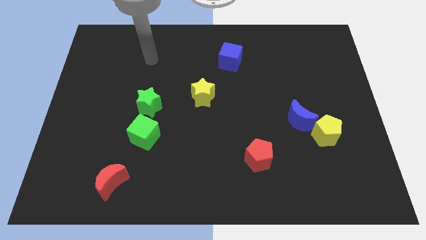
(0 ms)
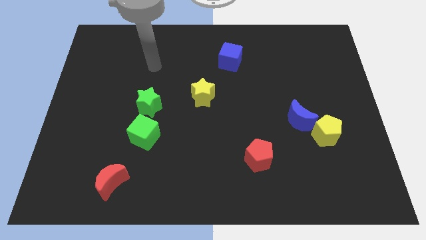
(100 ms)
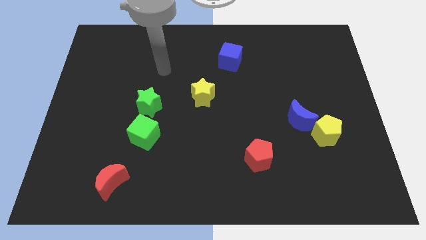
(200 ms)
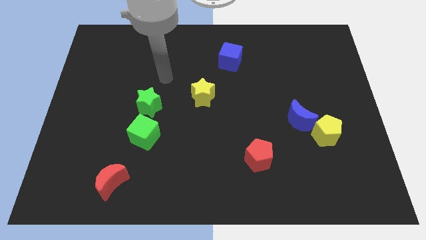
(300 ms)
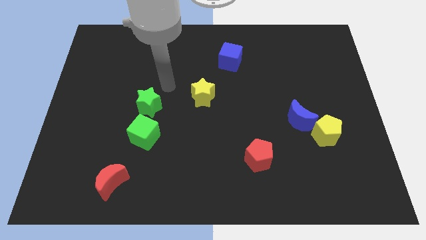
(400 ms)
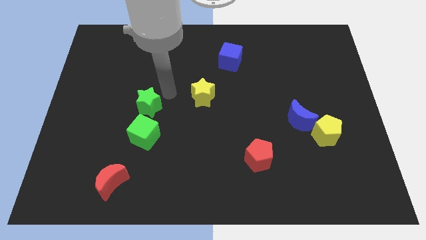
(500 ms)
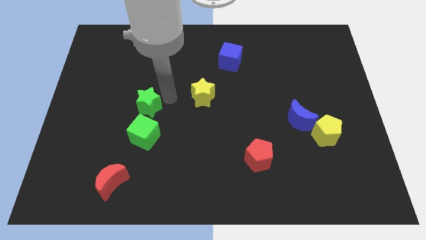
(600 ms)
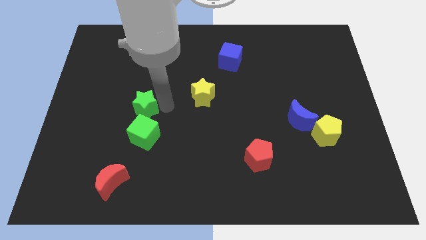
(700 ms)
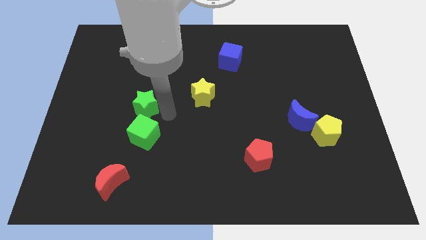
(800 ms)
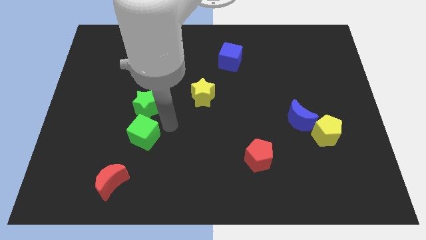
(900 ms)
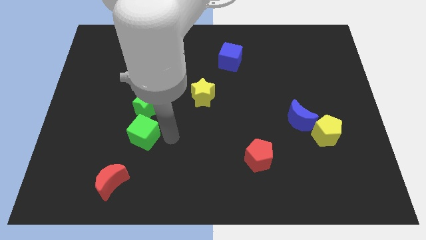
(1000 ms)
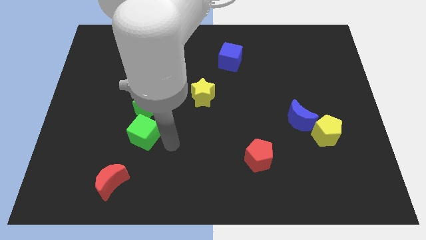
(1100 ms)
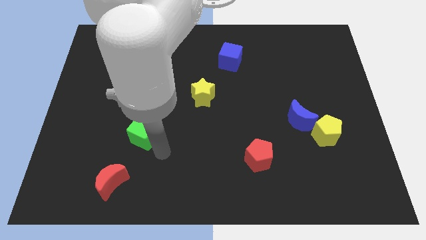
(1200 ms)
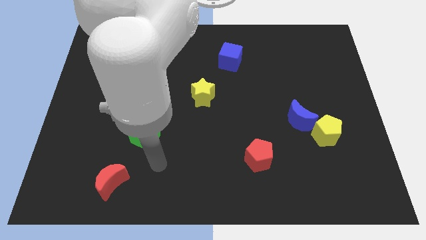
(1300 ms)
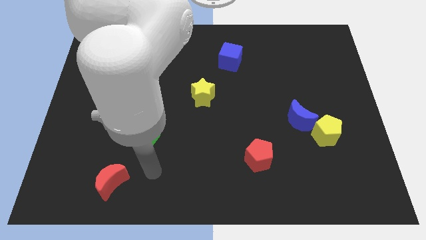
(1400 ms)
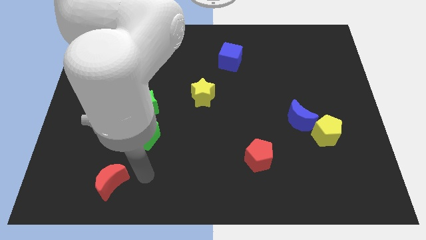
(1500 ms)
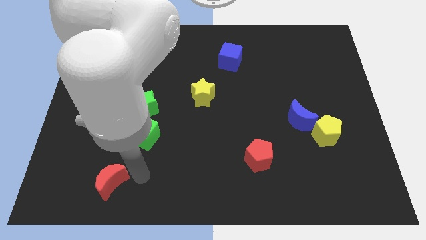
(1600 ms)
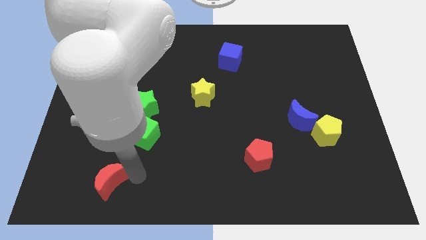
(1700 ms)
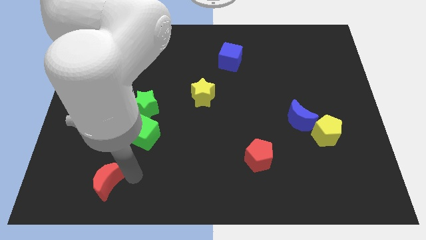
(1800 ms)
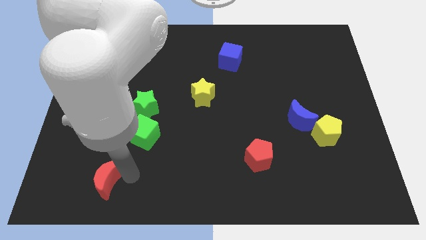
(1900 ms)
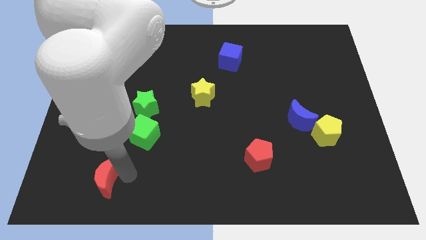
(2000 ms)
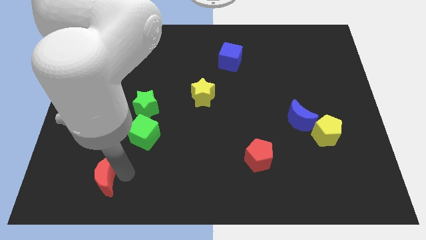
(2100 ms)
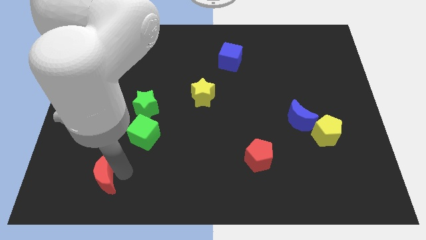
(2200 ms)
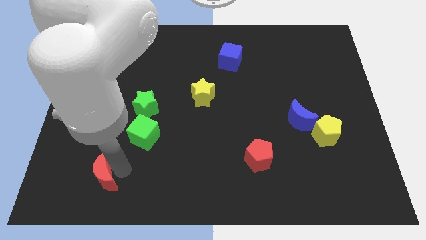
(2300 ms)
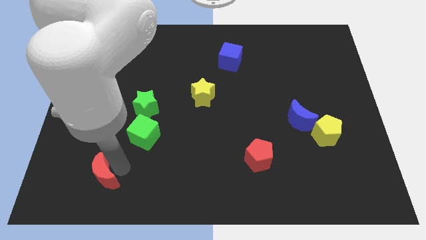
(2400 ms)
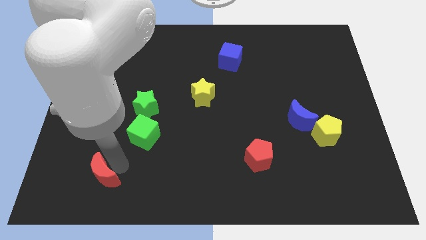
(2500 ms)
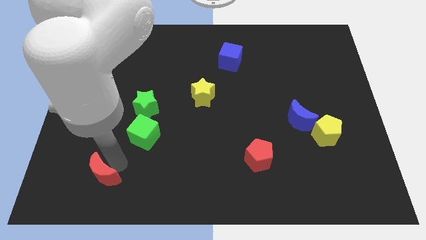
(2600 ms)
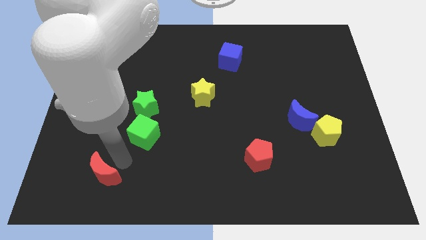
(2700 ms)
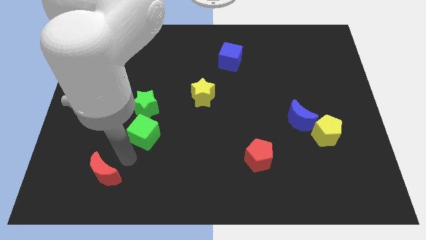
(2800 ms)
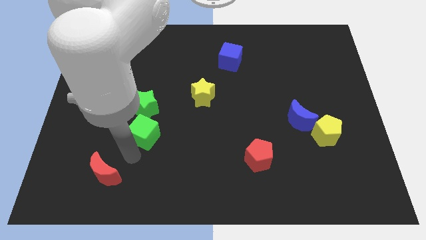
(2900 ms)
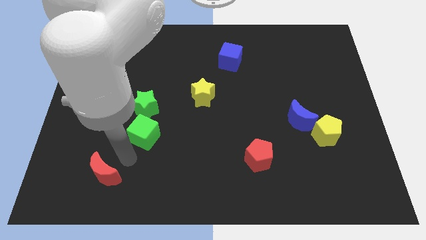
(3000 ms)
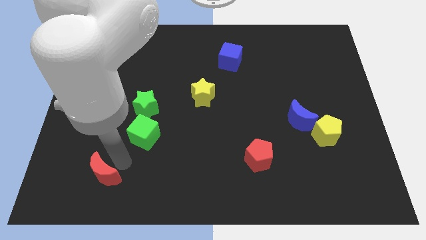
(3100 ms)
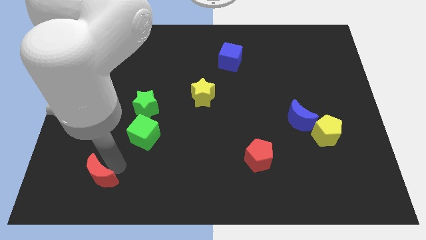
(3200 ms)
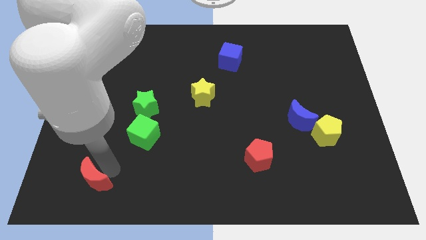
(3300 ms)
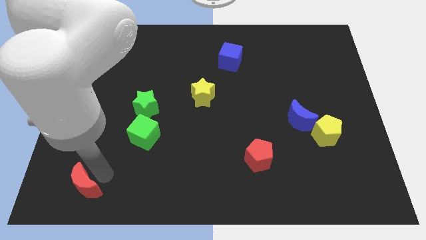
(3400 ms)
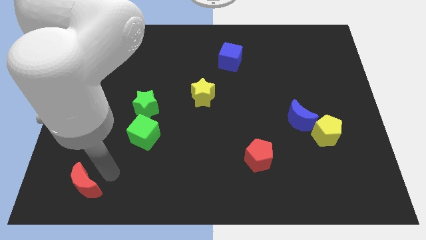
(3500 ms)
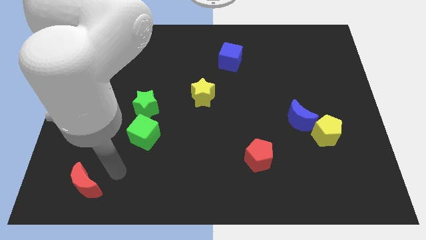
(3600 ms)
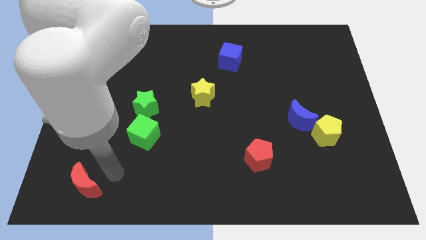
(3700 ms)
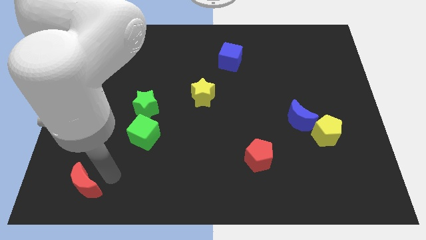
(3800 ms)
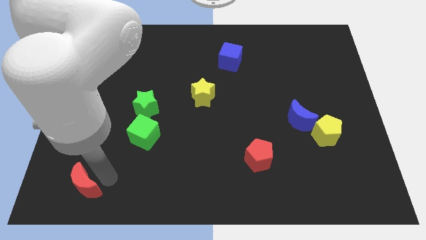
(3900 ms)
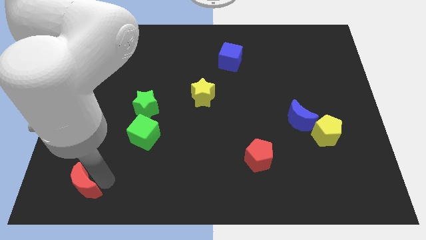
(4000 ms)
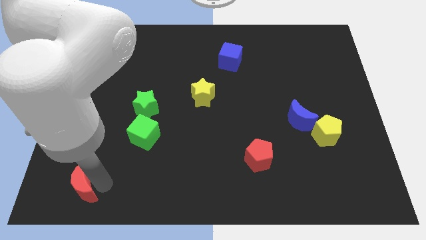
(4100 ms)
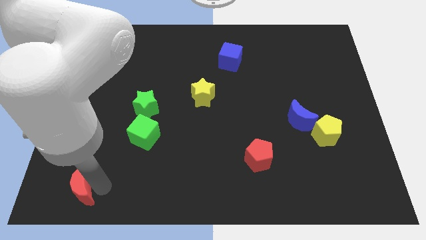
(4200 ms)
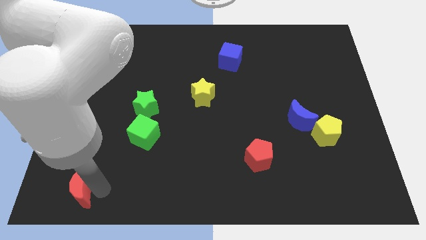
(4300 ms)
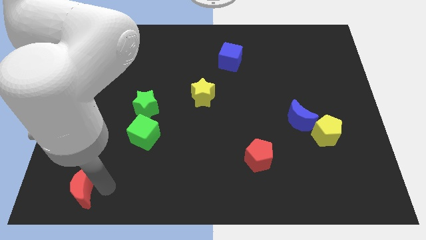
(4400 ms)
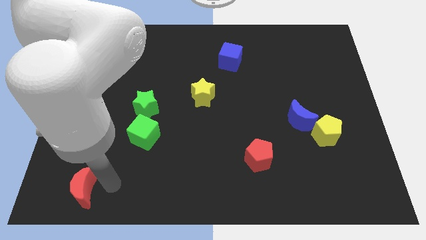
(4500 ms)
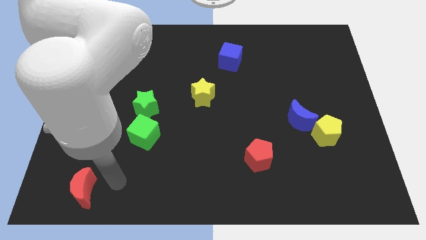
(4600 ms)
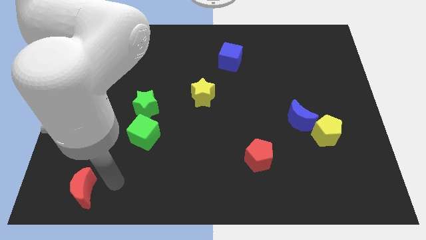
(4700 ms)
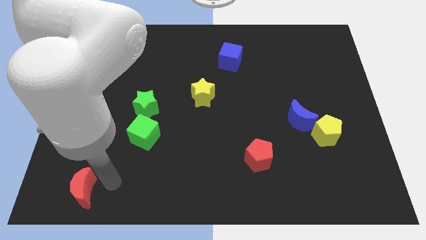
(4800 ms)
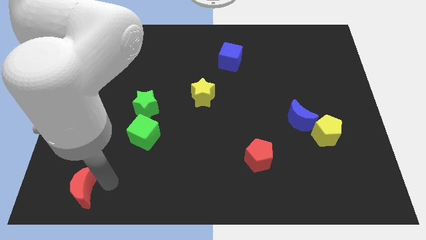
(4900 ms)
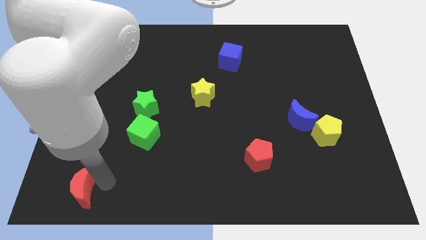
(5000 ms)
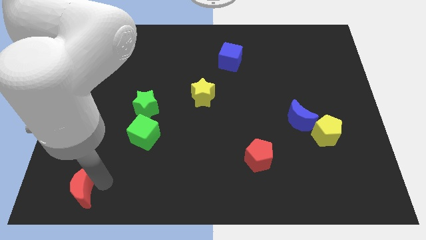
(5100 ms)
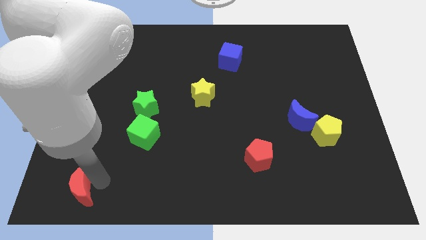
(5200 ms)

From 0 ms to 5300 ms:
move the red moon to the bottom left of the board

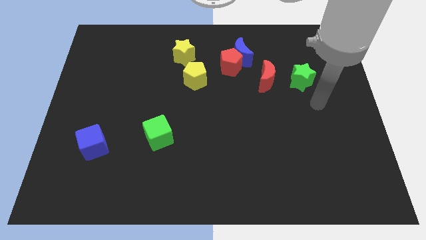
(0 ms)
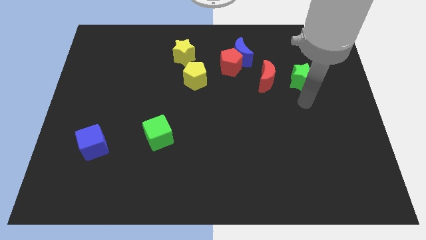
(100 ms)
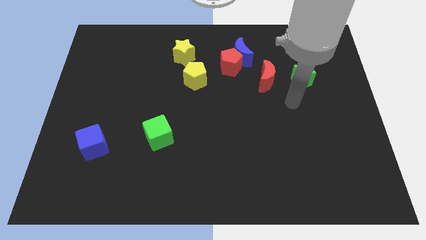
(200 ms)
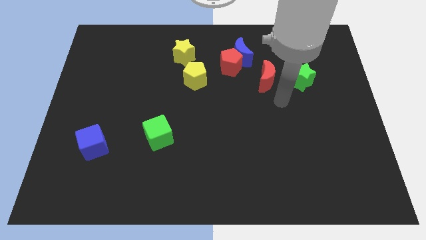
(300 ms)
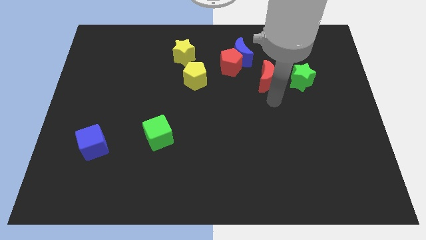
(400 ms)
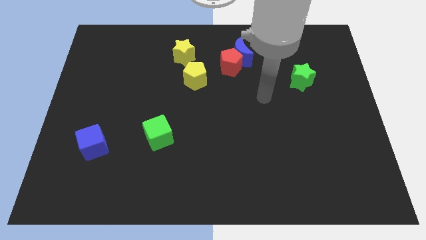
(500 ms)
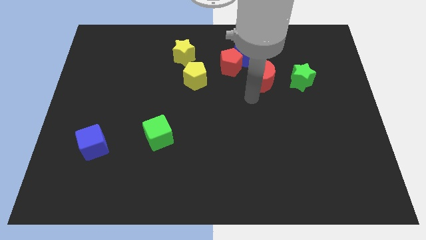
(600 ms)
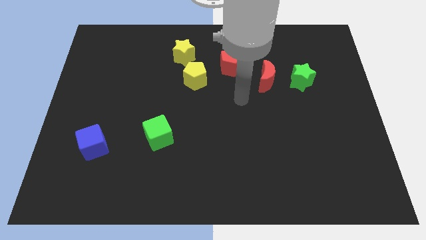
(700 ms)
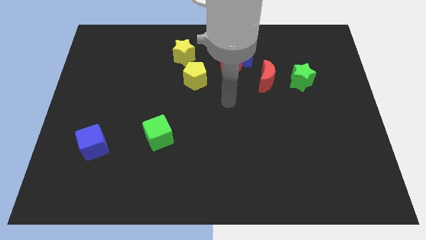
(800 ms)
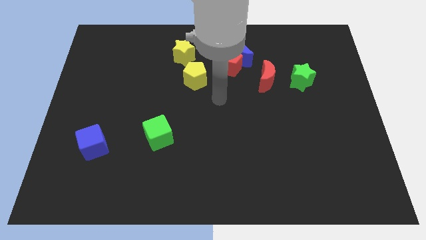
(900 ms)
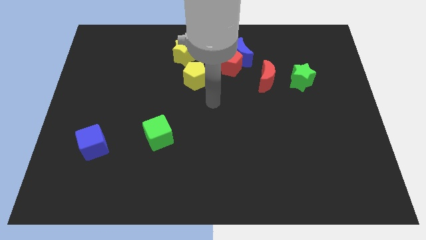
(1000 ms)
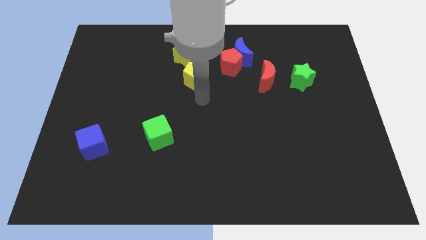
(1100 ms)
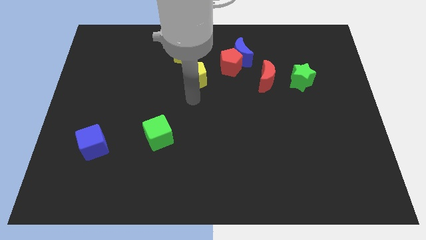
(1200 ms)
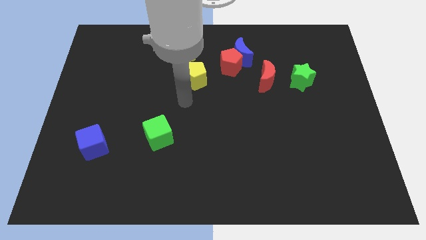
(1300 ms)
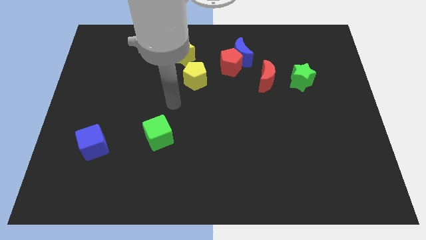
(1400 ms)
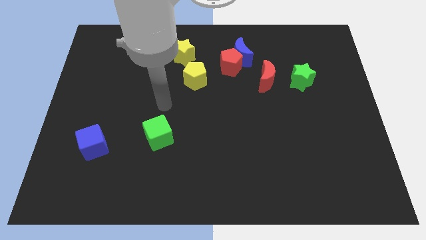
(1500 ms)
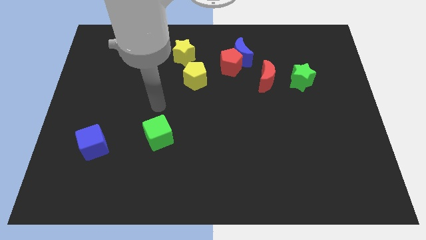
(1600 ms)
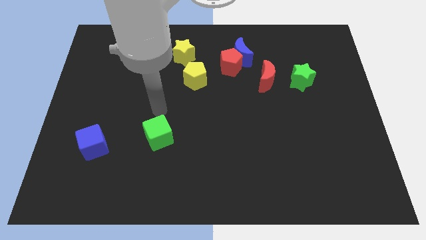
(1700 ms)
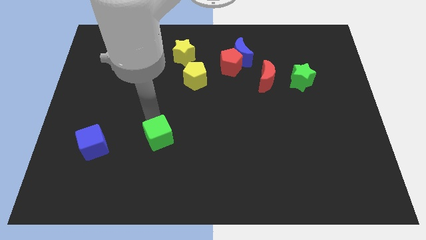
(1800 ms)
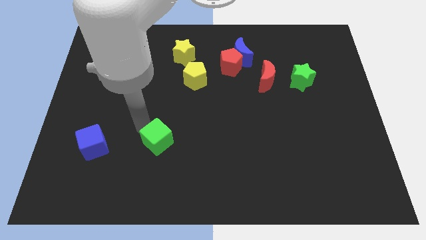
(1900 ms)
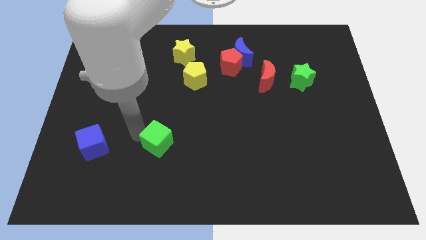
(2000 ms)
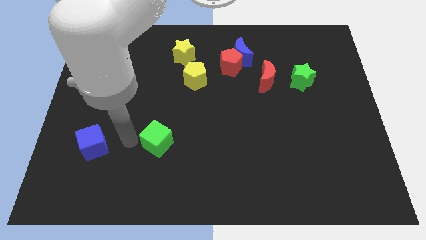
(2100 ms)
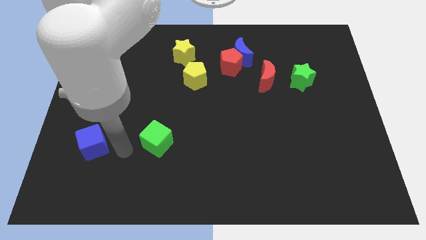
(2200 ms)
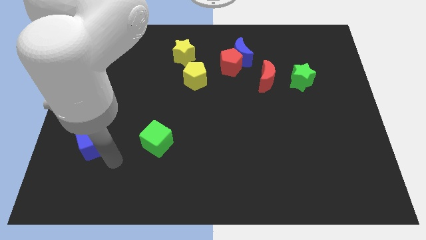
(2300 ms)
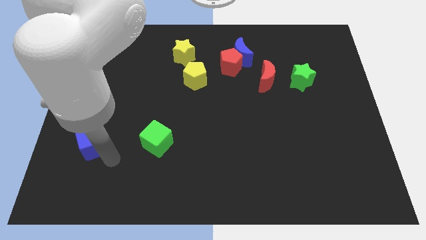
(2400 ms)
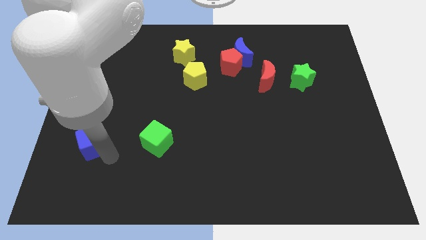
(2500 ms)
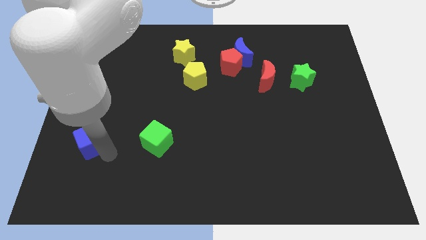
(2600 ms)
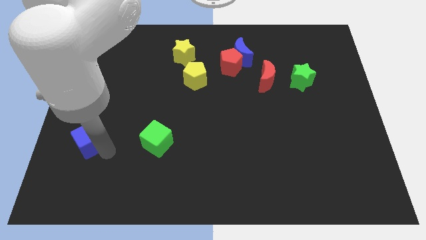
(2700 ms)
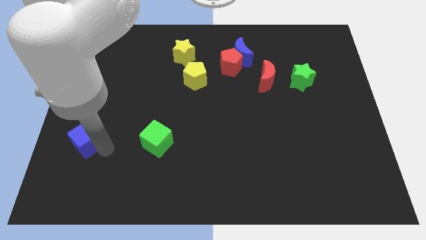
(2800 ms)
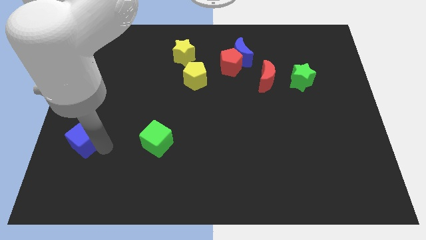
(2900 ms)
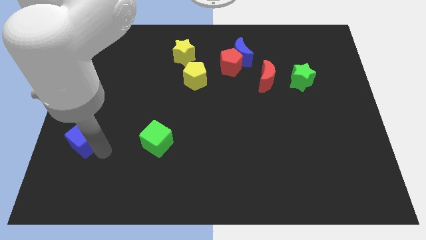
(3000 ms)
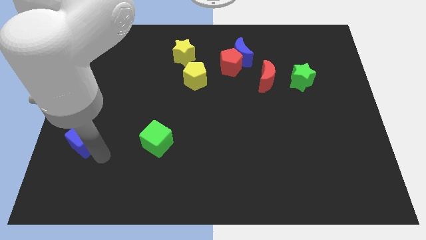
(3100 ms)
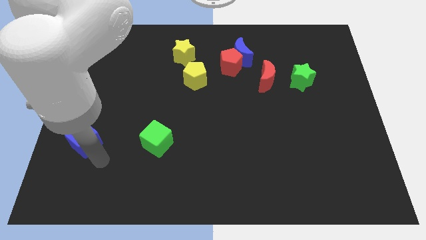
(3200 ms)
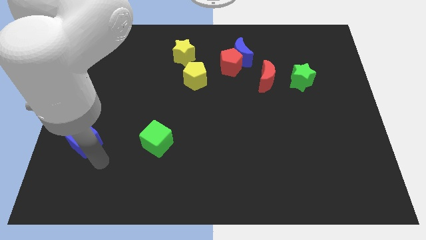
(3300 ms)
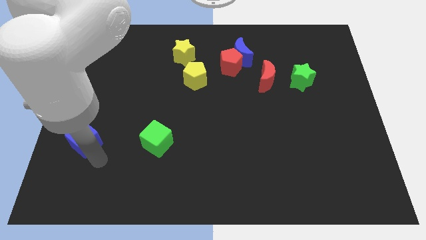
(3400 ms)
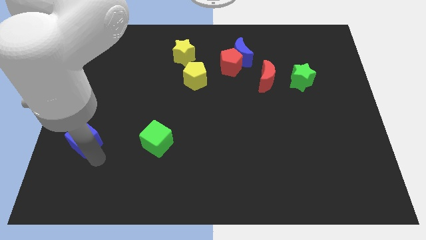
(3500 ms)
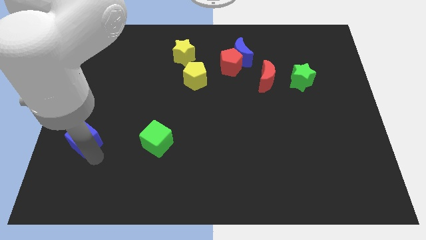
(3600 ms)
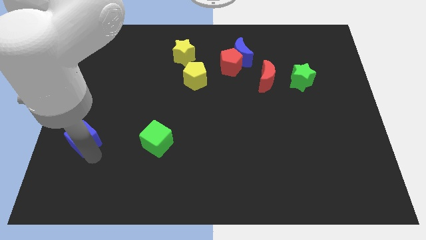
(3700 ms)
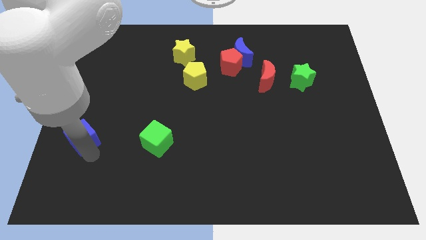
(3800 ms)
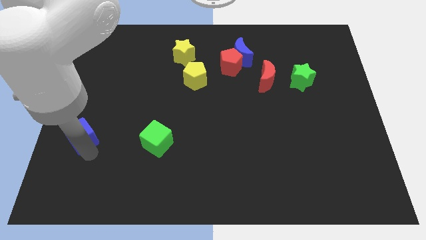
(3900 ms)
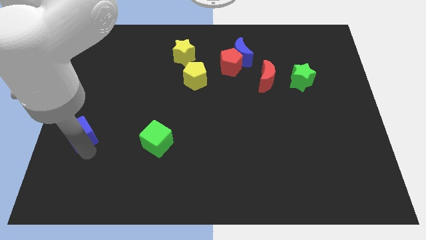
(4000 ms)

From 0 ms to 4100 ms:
slide the blue cube to the center left
